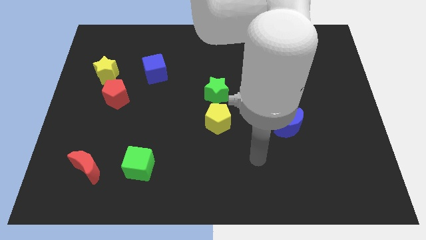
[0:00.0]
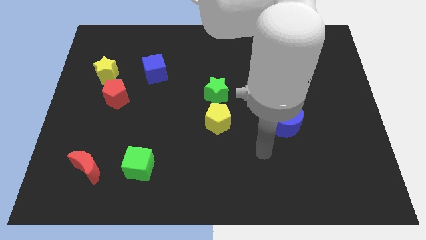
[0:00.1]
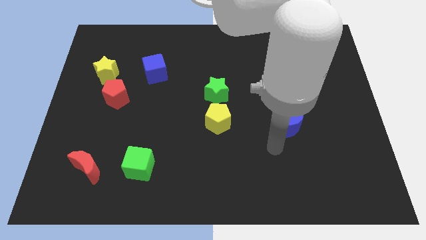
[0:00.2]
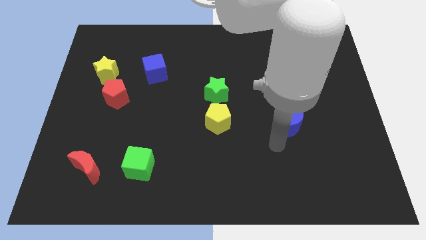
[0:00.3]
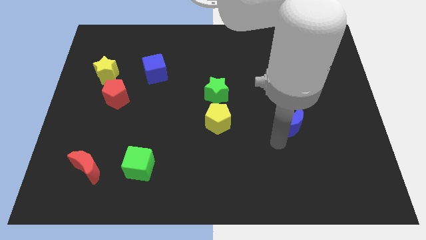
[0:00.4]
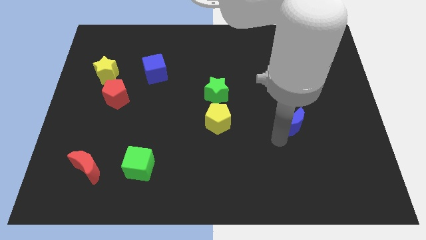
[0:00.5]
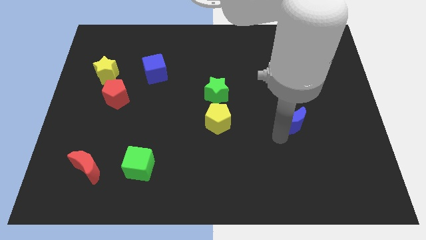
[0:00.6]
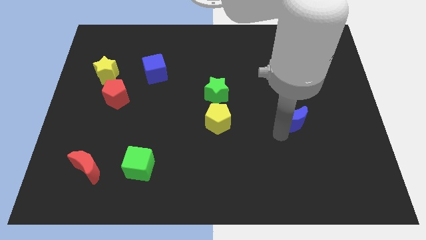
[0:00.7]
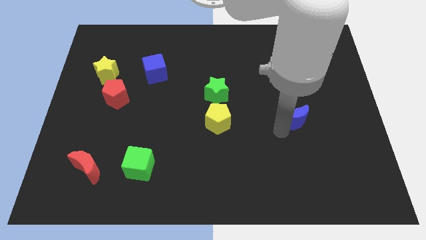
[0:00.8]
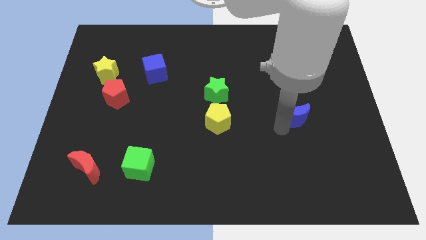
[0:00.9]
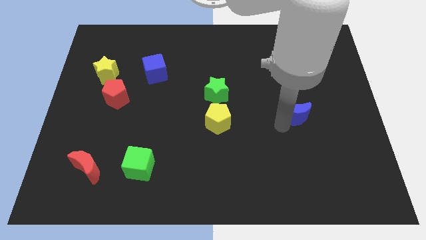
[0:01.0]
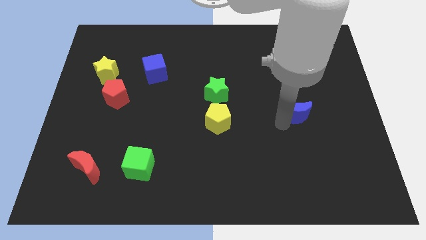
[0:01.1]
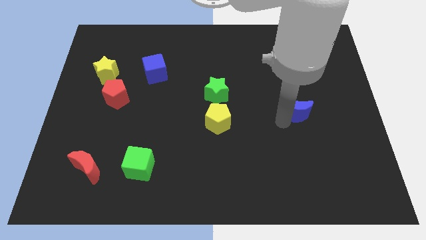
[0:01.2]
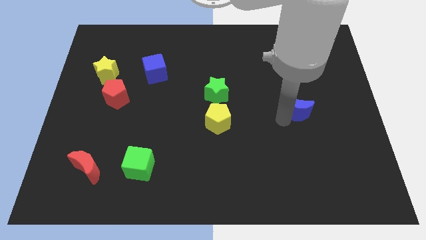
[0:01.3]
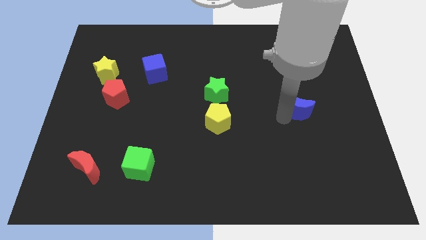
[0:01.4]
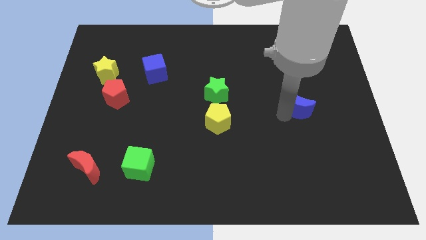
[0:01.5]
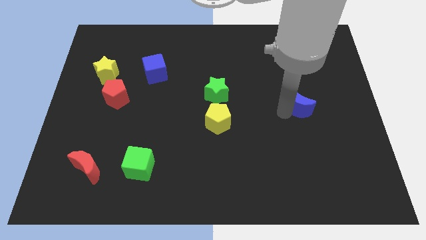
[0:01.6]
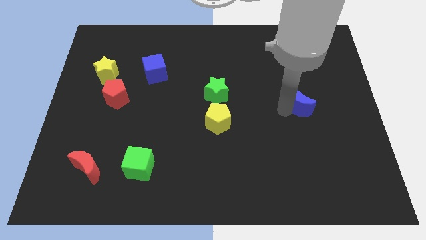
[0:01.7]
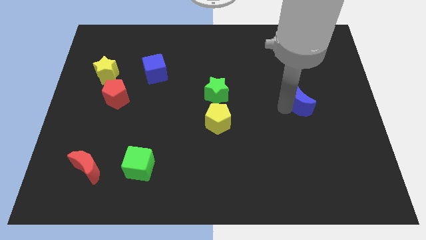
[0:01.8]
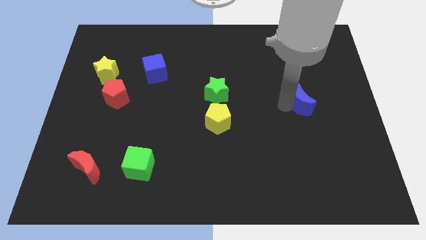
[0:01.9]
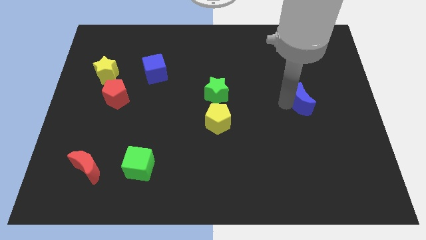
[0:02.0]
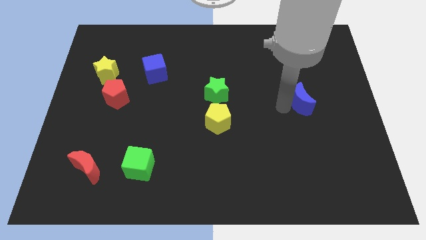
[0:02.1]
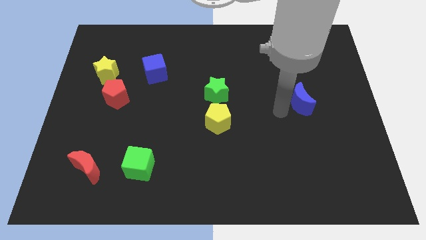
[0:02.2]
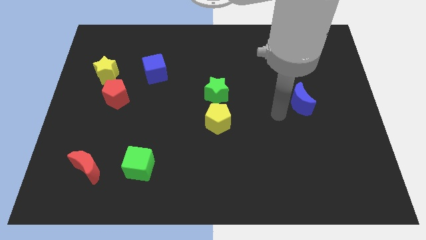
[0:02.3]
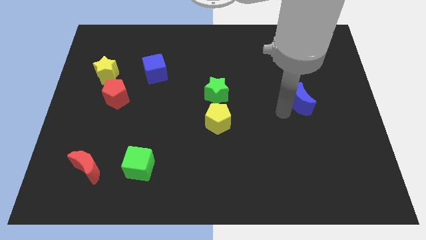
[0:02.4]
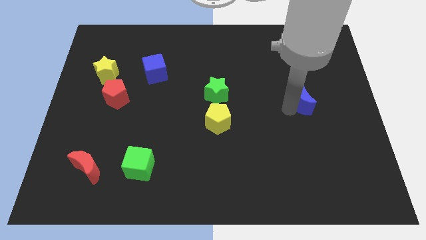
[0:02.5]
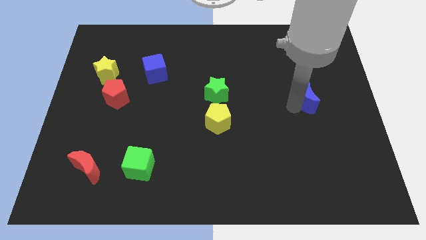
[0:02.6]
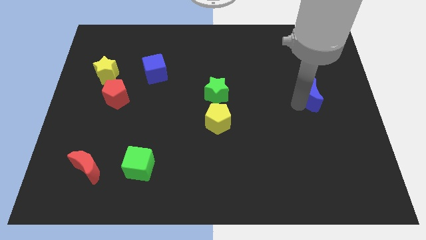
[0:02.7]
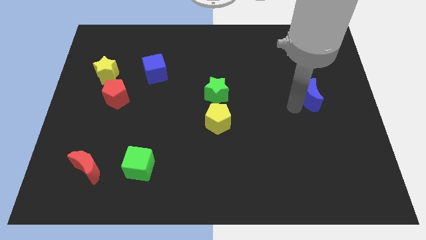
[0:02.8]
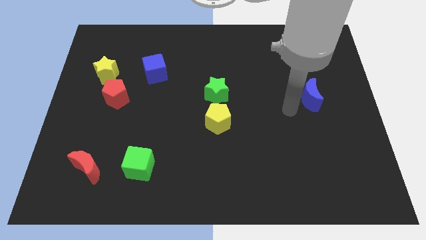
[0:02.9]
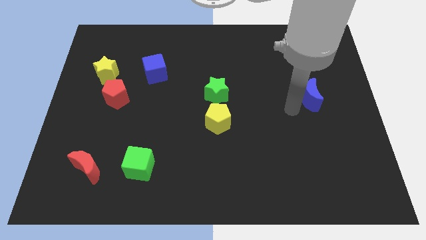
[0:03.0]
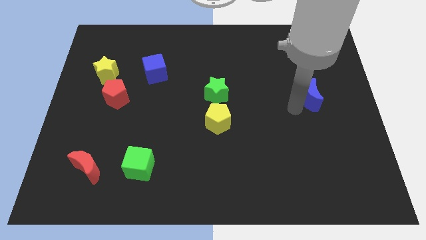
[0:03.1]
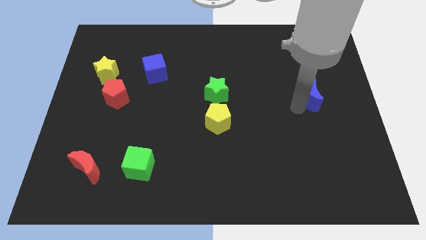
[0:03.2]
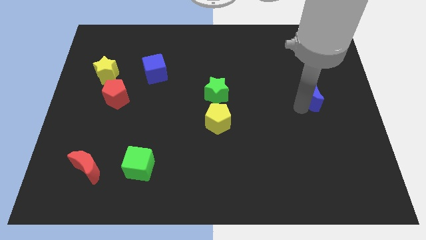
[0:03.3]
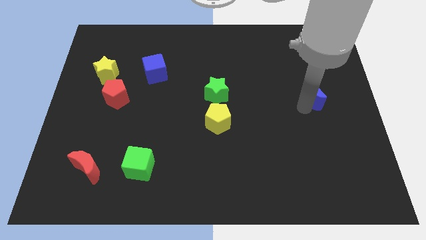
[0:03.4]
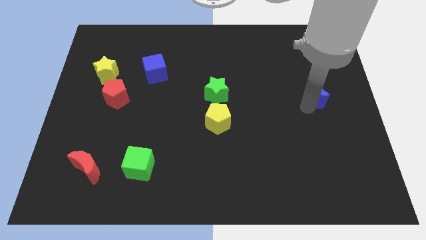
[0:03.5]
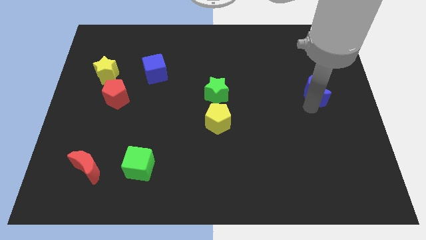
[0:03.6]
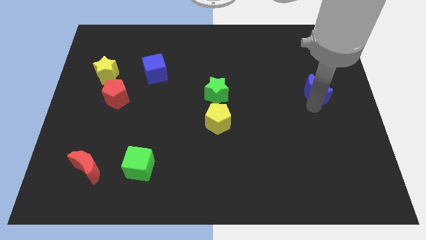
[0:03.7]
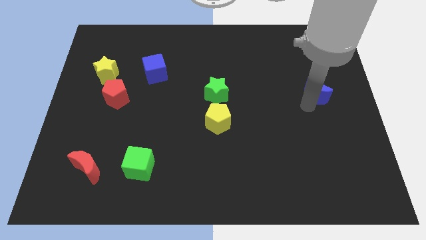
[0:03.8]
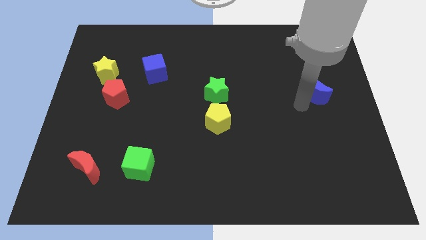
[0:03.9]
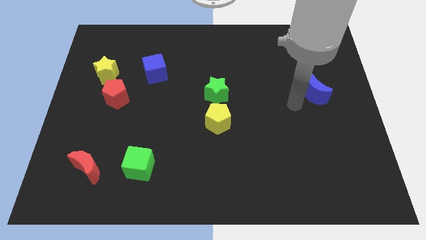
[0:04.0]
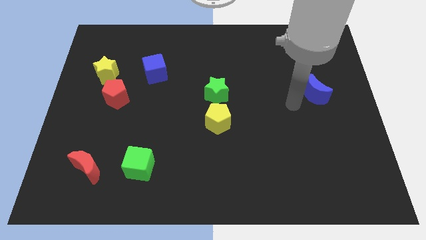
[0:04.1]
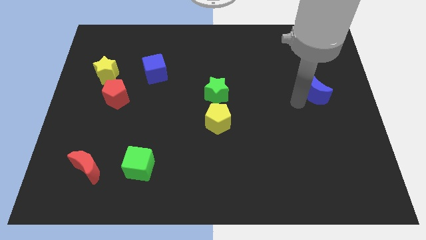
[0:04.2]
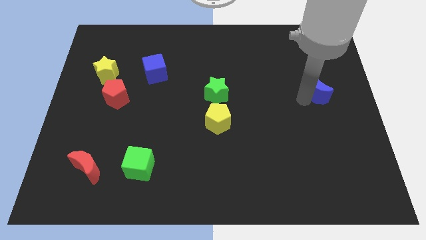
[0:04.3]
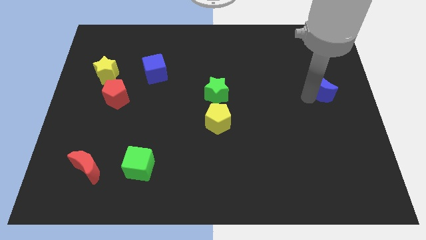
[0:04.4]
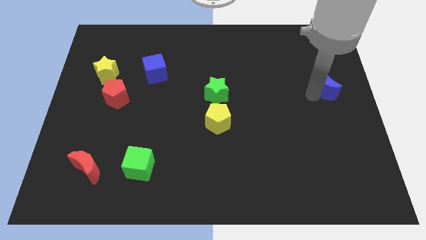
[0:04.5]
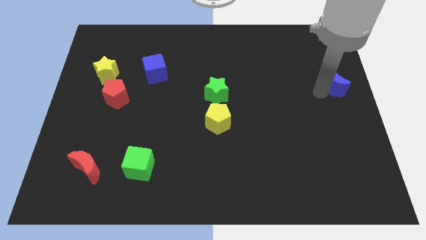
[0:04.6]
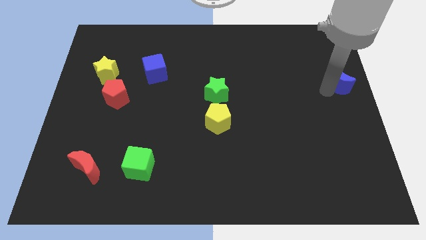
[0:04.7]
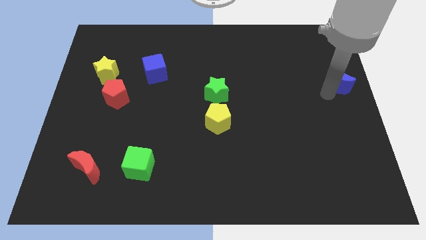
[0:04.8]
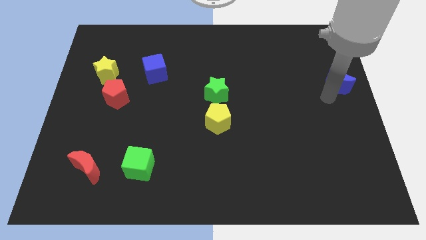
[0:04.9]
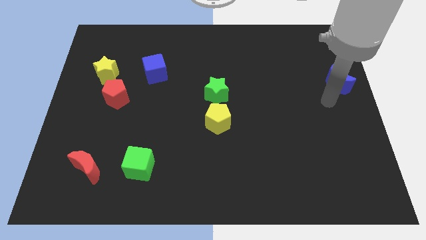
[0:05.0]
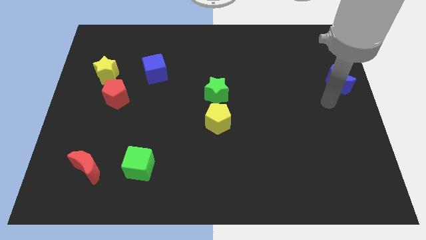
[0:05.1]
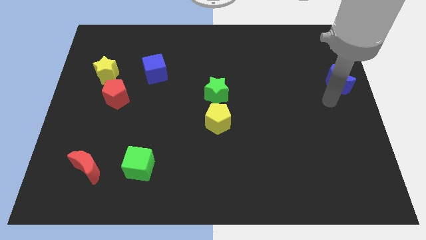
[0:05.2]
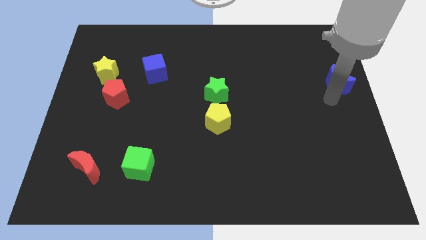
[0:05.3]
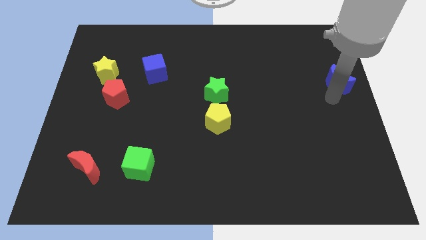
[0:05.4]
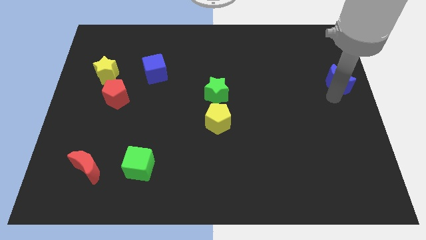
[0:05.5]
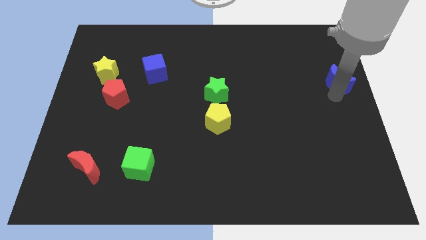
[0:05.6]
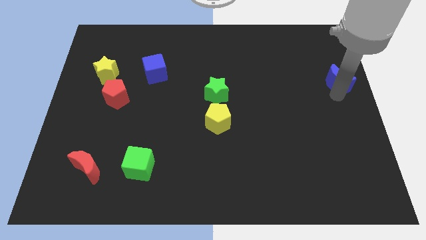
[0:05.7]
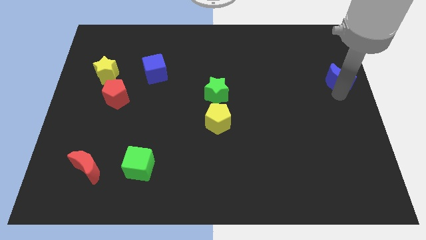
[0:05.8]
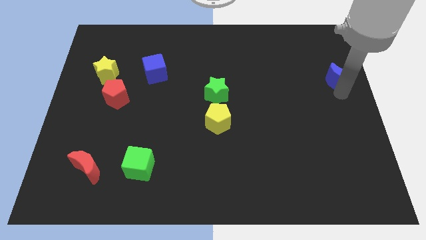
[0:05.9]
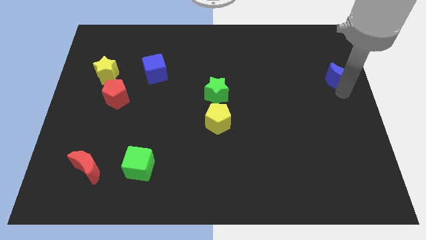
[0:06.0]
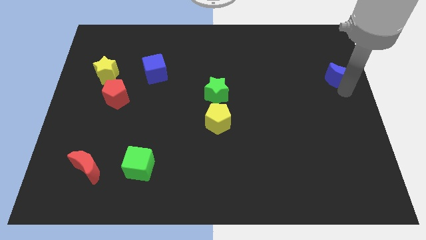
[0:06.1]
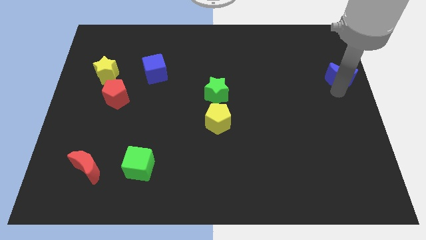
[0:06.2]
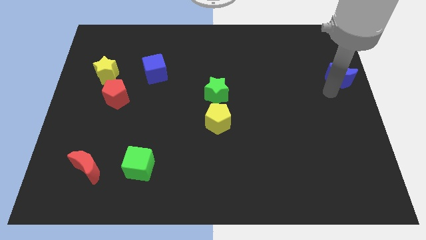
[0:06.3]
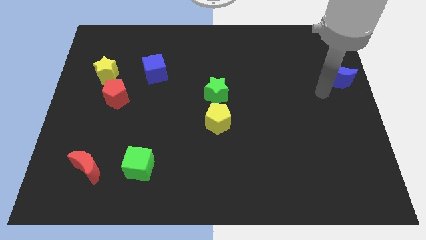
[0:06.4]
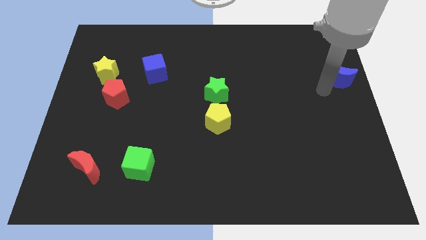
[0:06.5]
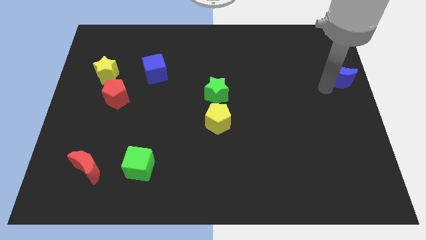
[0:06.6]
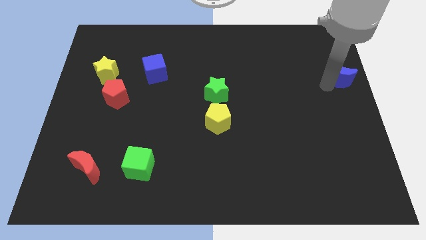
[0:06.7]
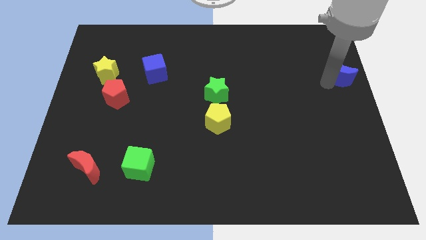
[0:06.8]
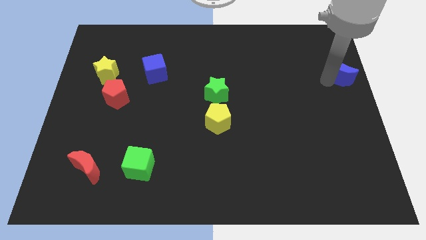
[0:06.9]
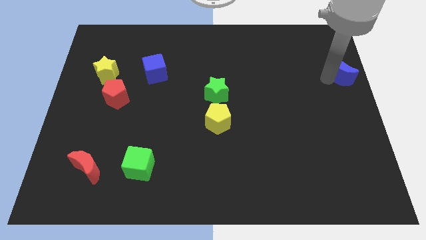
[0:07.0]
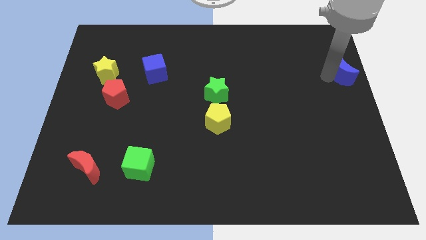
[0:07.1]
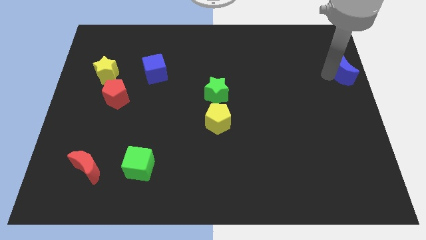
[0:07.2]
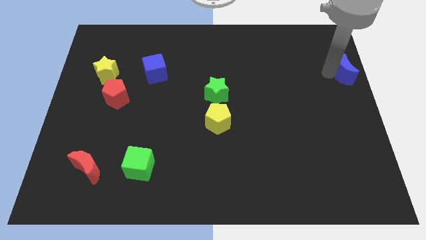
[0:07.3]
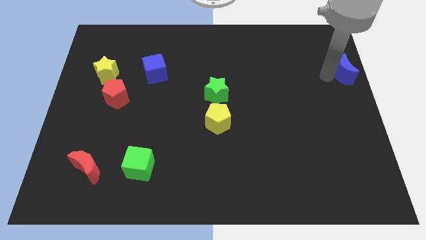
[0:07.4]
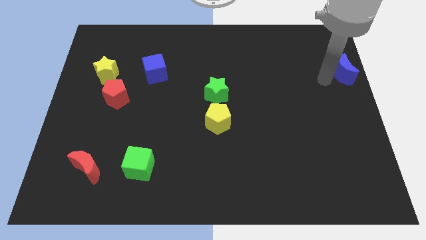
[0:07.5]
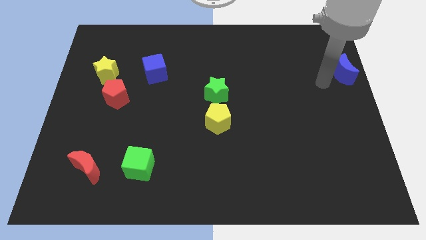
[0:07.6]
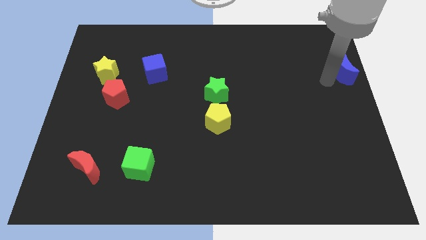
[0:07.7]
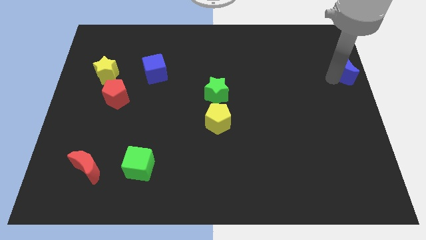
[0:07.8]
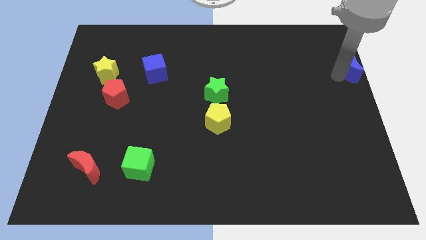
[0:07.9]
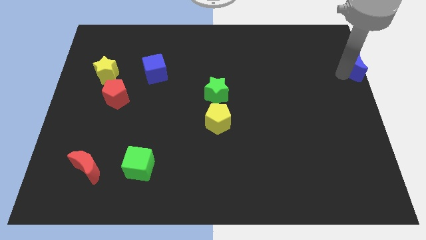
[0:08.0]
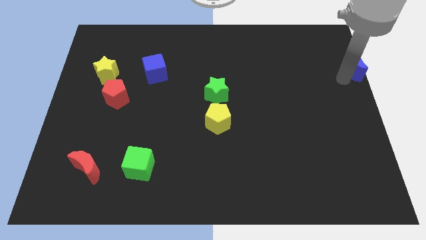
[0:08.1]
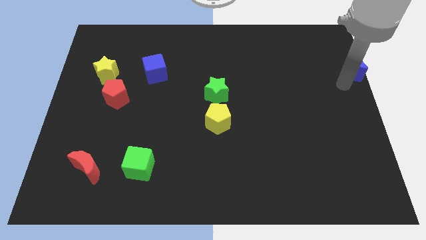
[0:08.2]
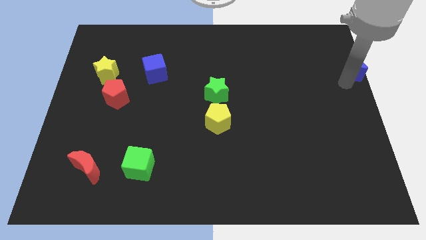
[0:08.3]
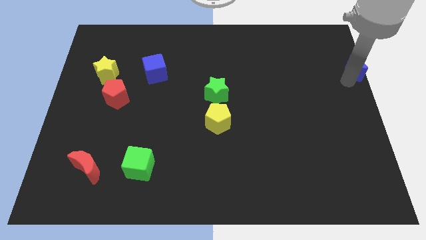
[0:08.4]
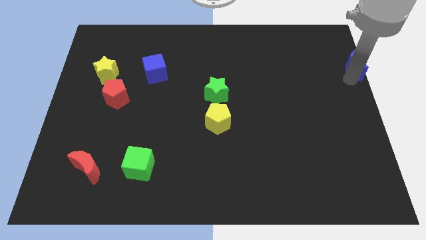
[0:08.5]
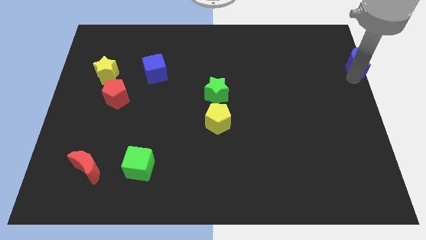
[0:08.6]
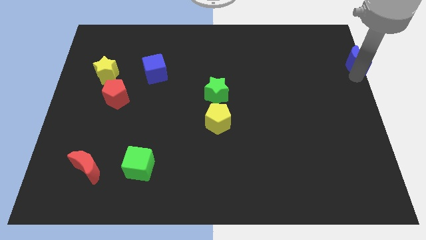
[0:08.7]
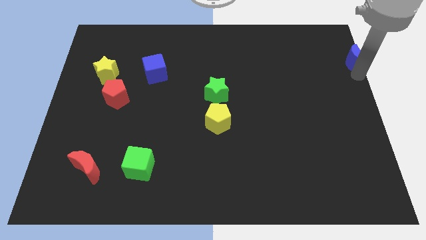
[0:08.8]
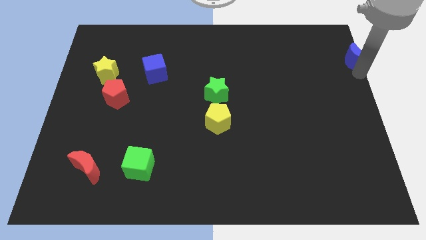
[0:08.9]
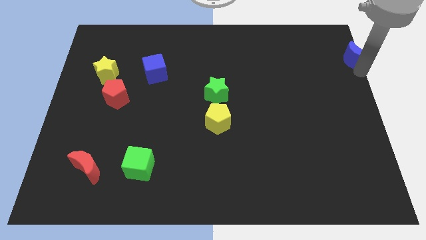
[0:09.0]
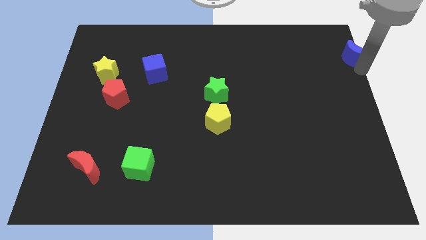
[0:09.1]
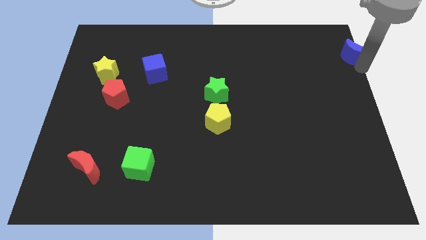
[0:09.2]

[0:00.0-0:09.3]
slide the blue moon to the top right of the board
